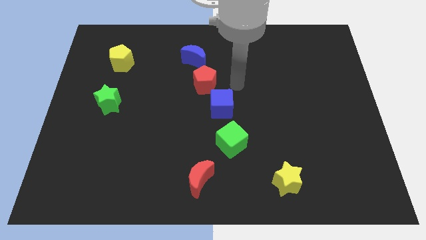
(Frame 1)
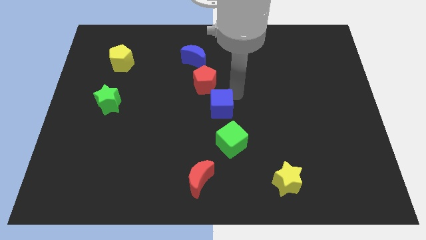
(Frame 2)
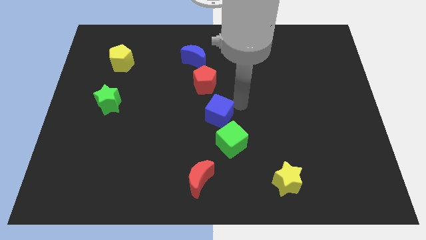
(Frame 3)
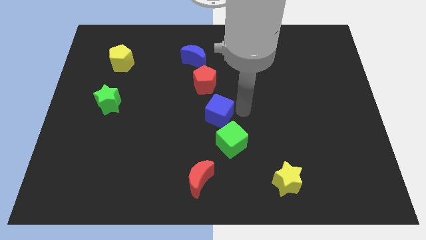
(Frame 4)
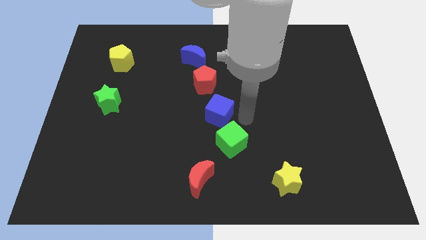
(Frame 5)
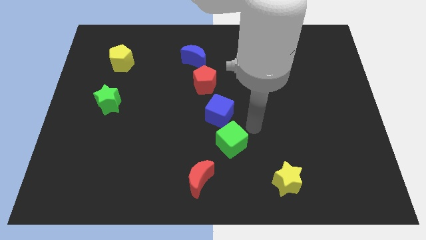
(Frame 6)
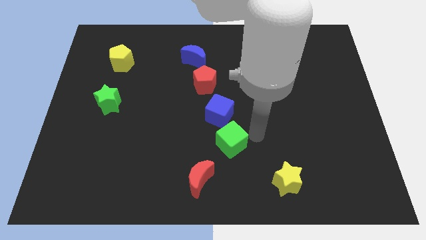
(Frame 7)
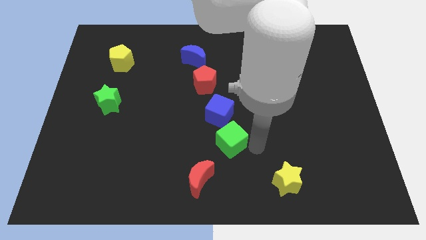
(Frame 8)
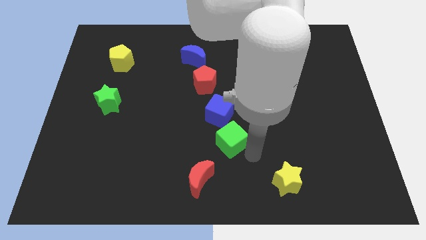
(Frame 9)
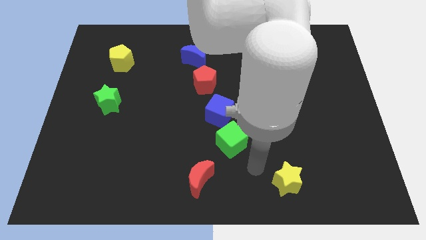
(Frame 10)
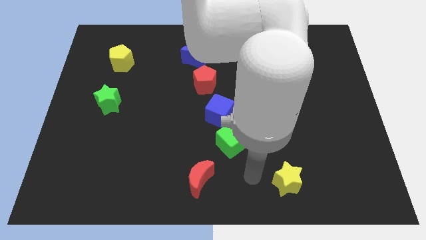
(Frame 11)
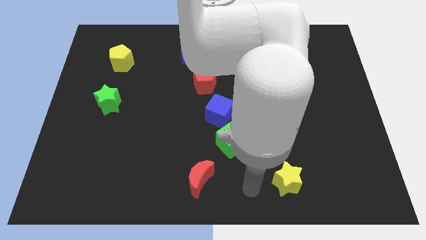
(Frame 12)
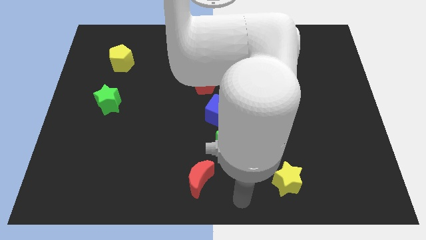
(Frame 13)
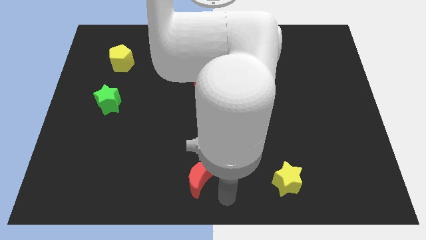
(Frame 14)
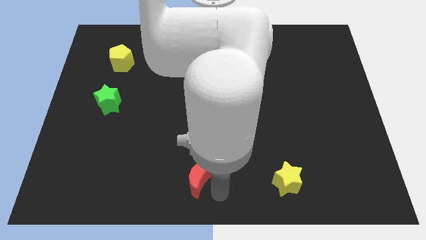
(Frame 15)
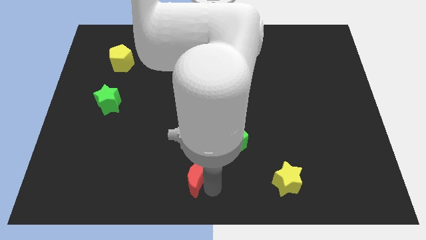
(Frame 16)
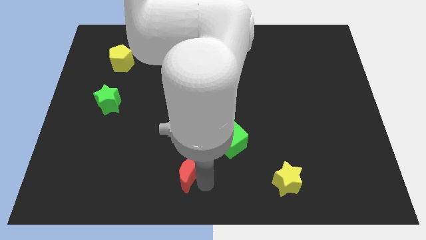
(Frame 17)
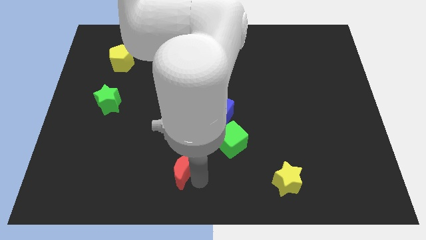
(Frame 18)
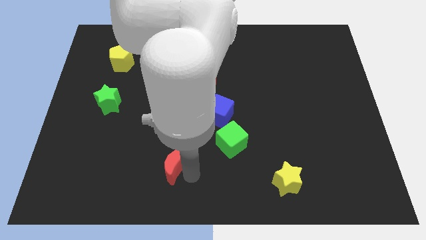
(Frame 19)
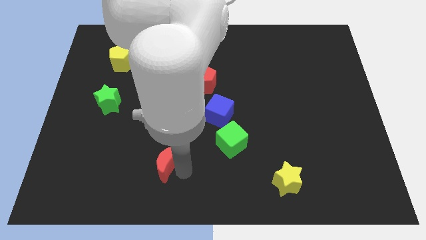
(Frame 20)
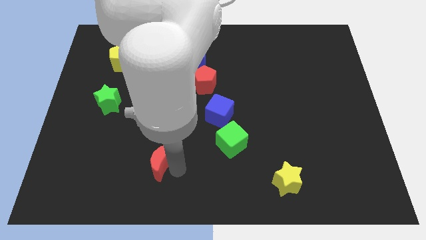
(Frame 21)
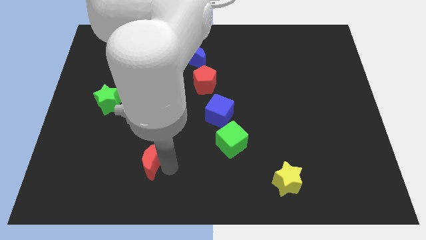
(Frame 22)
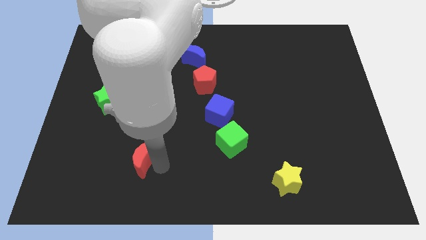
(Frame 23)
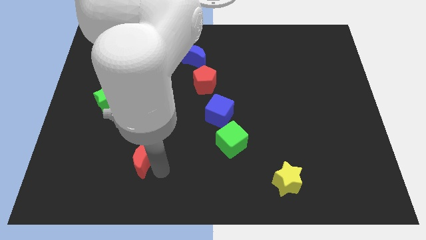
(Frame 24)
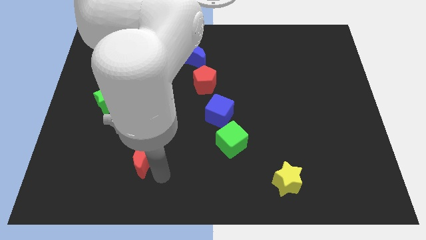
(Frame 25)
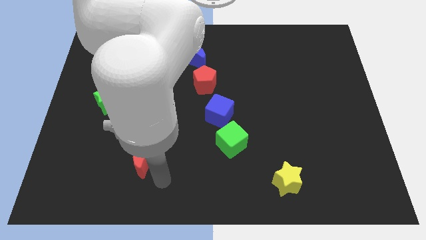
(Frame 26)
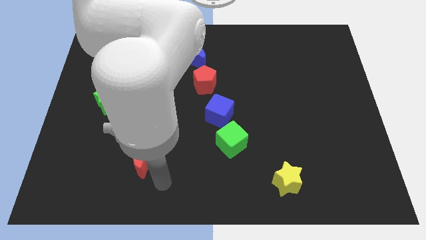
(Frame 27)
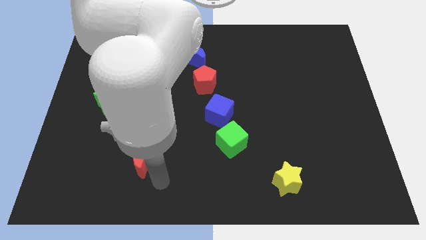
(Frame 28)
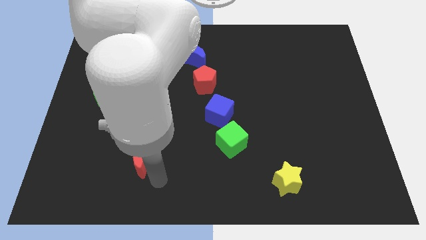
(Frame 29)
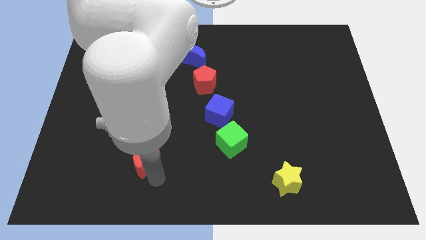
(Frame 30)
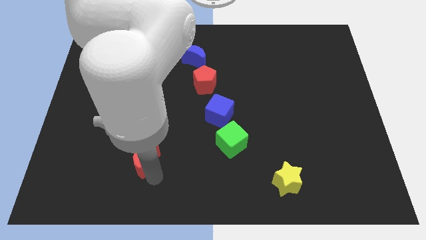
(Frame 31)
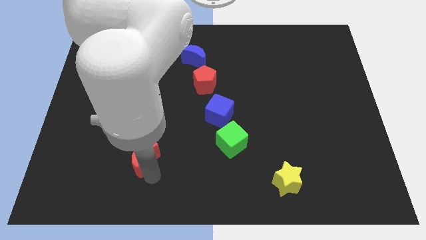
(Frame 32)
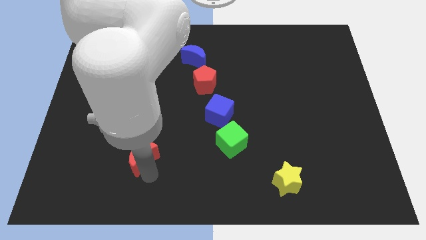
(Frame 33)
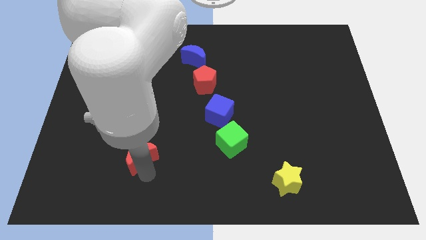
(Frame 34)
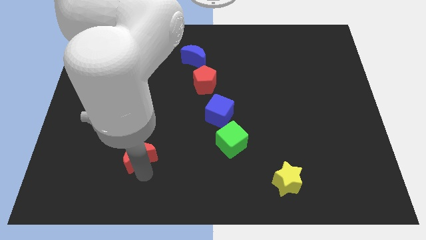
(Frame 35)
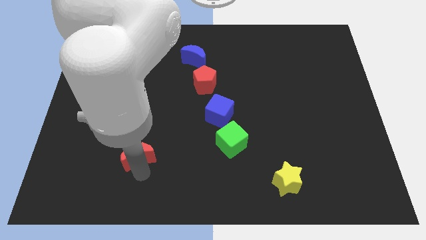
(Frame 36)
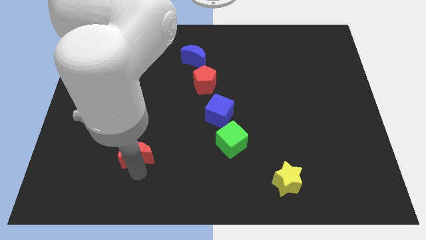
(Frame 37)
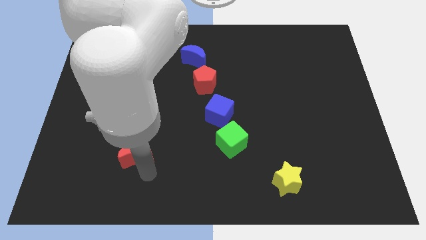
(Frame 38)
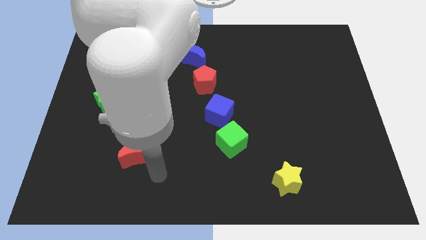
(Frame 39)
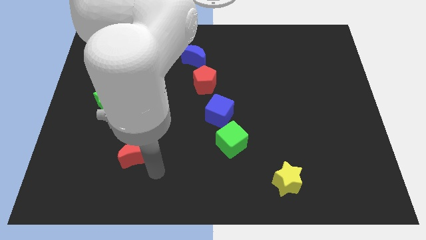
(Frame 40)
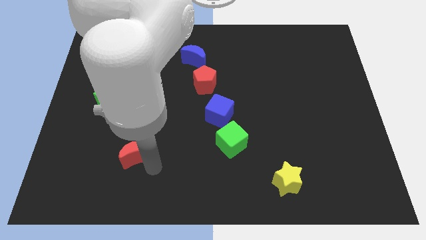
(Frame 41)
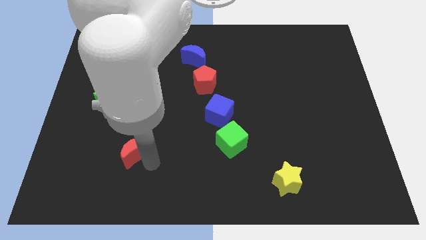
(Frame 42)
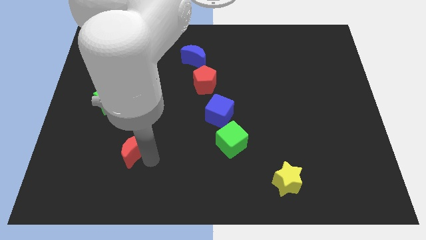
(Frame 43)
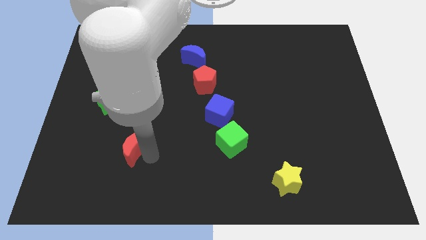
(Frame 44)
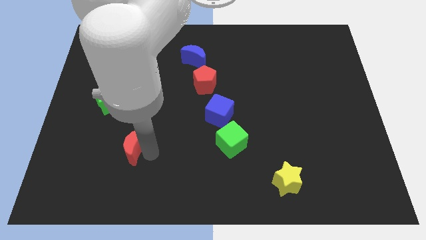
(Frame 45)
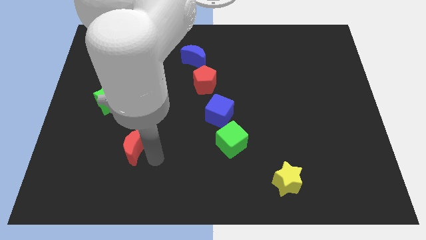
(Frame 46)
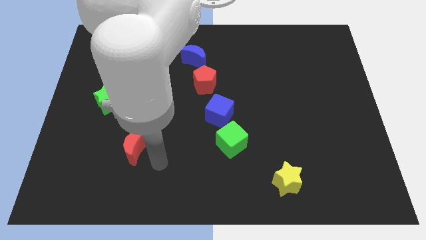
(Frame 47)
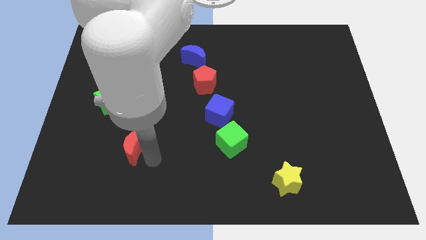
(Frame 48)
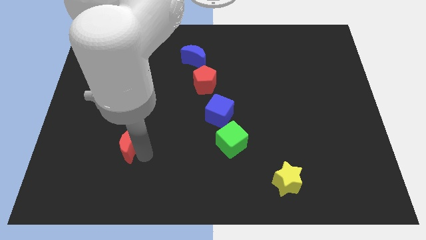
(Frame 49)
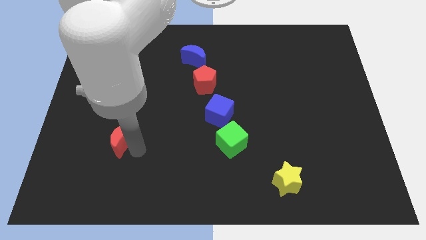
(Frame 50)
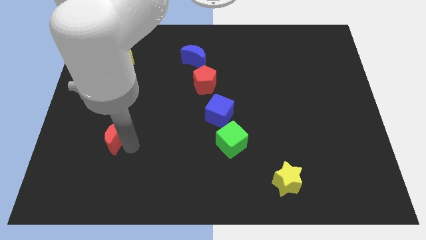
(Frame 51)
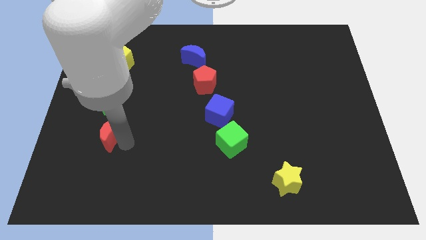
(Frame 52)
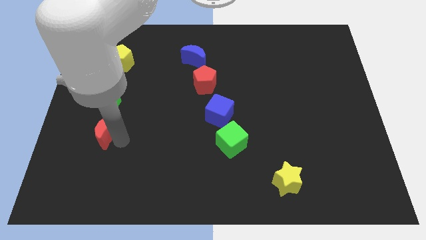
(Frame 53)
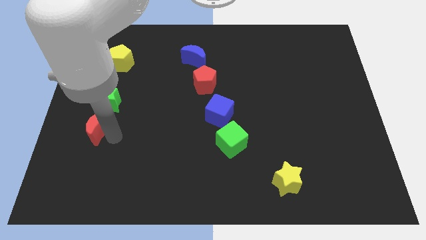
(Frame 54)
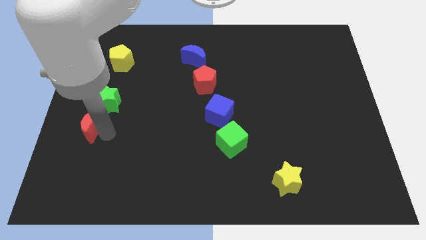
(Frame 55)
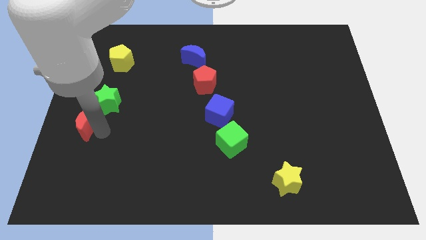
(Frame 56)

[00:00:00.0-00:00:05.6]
put the red moon to the left side of the board

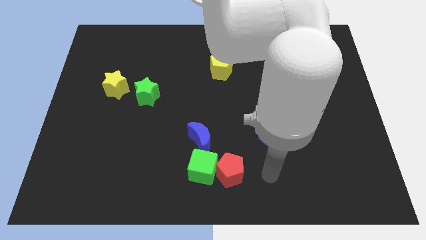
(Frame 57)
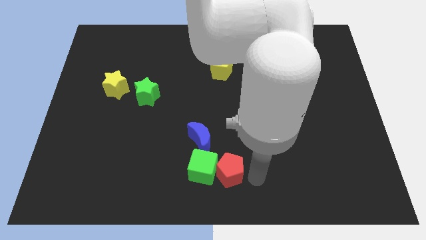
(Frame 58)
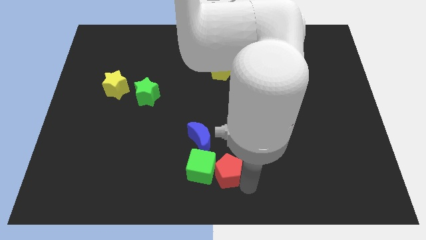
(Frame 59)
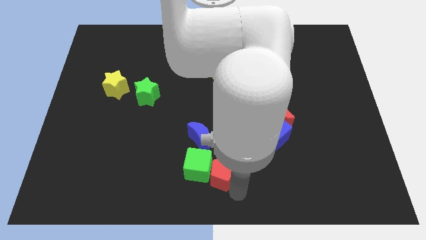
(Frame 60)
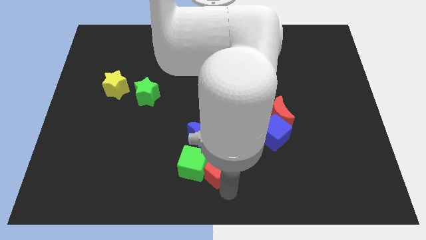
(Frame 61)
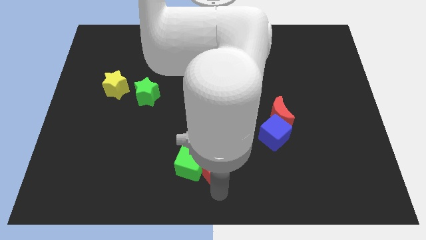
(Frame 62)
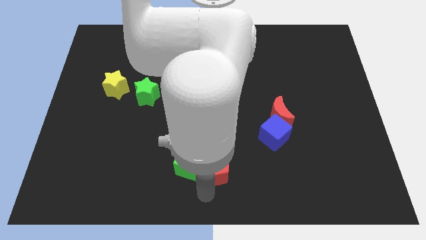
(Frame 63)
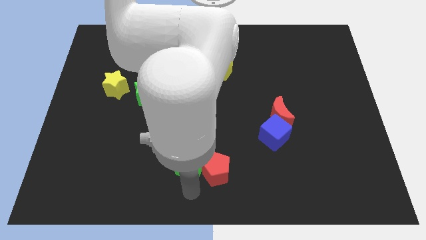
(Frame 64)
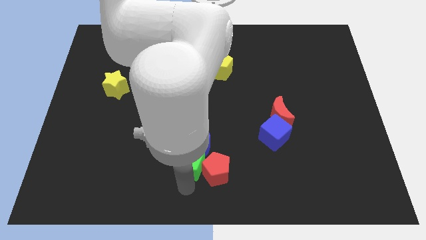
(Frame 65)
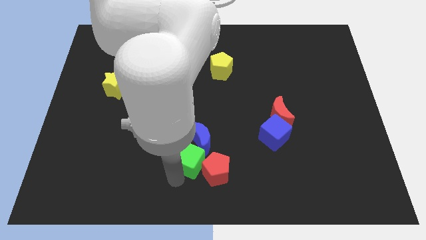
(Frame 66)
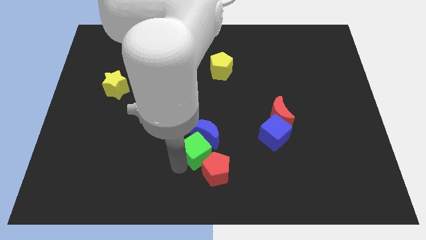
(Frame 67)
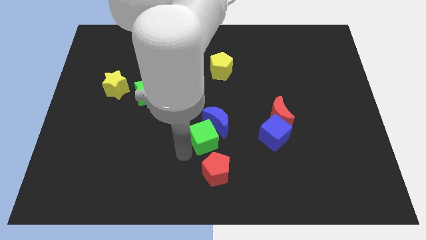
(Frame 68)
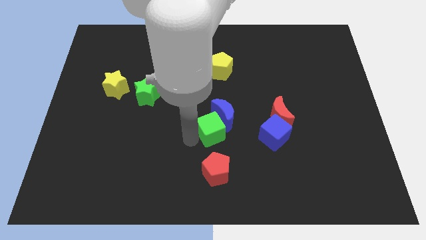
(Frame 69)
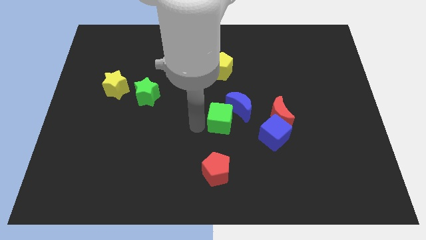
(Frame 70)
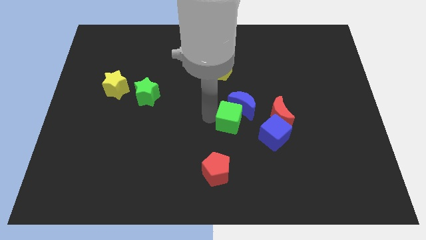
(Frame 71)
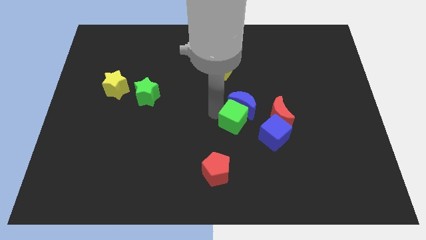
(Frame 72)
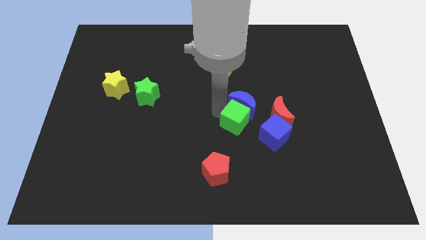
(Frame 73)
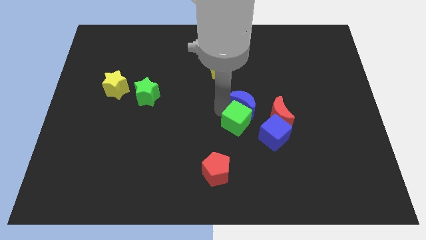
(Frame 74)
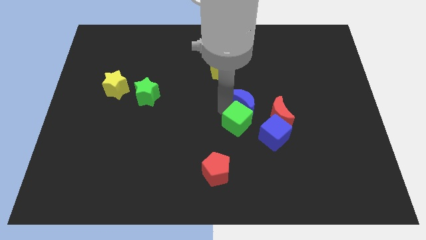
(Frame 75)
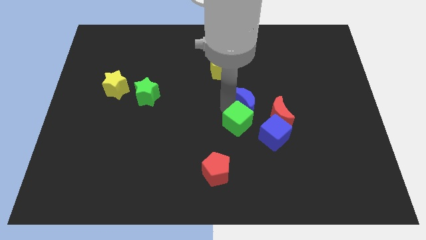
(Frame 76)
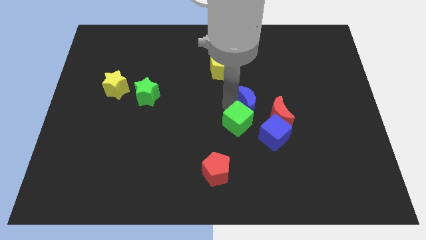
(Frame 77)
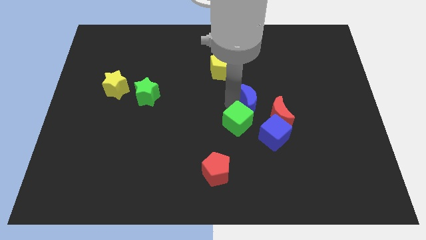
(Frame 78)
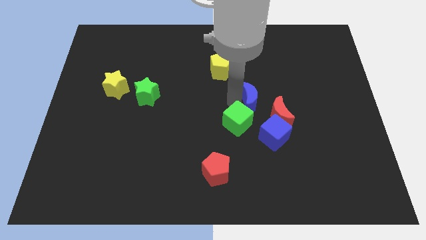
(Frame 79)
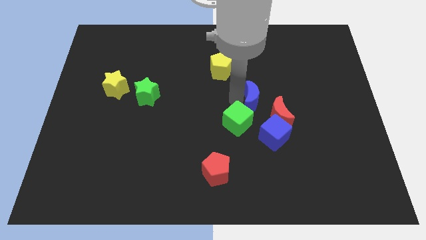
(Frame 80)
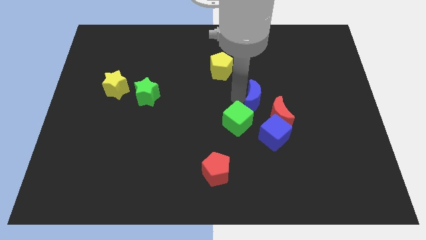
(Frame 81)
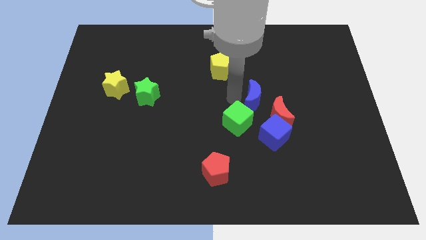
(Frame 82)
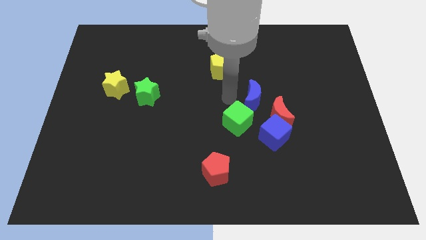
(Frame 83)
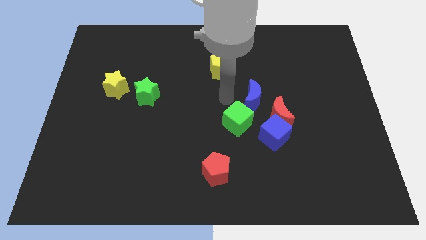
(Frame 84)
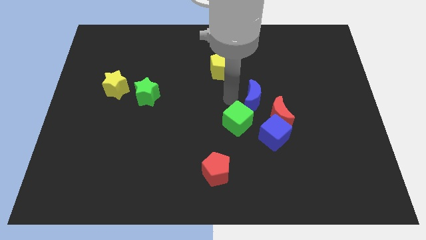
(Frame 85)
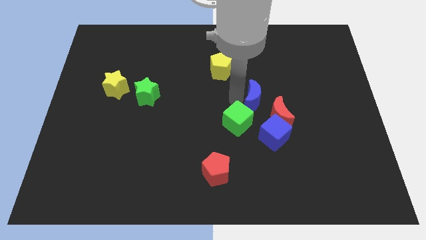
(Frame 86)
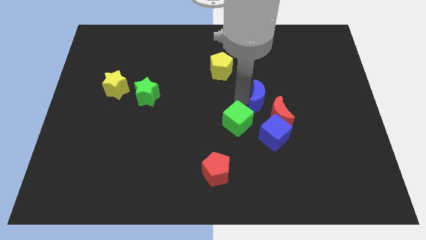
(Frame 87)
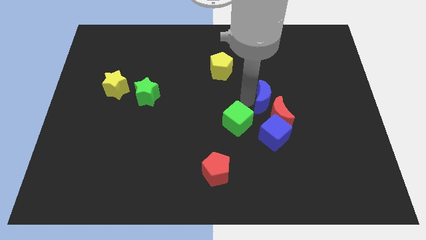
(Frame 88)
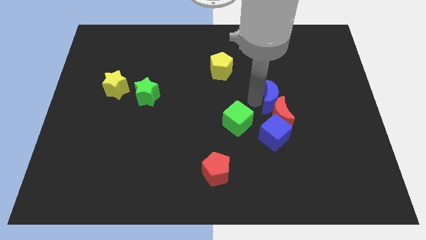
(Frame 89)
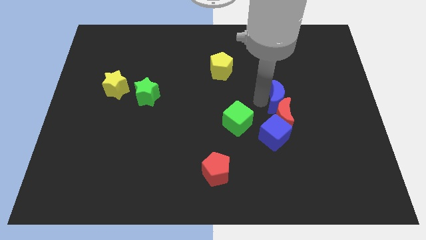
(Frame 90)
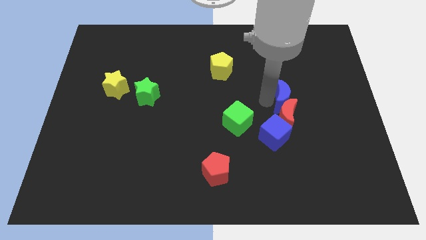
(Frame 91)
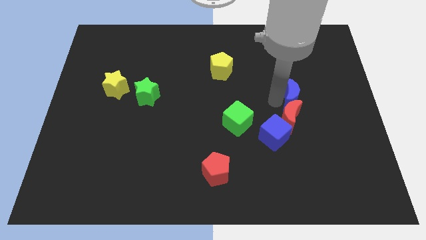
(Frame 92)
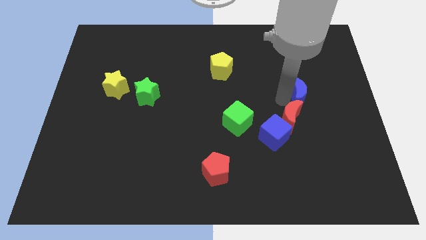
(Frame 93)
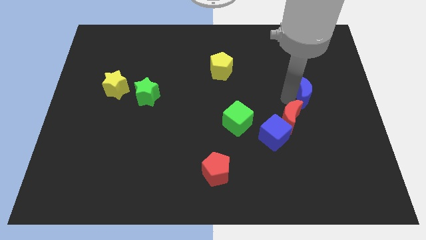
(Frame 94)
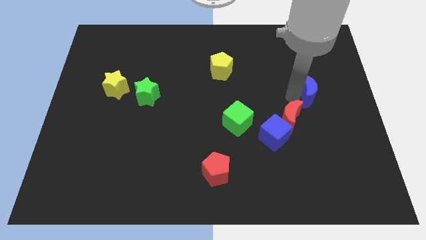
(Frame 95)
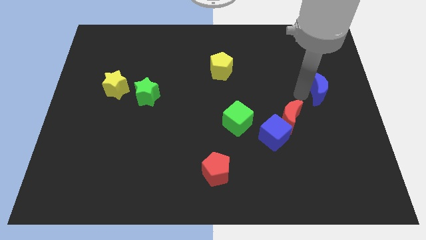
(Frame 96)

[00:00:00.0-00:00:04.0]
slide the blue moon to the right side of the board
